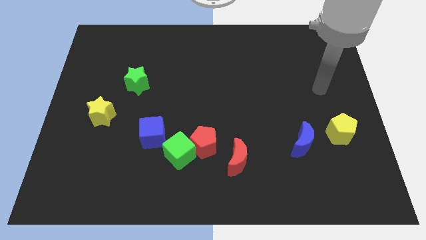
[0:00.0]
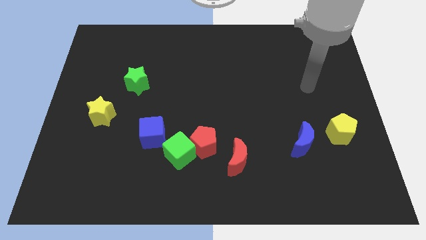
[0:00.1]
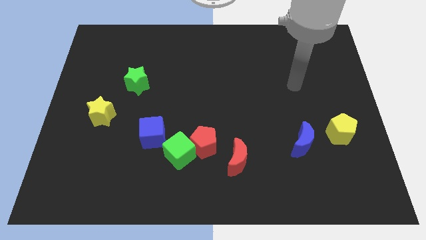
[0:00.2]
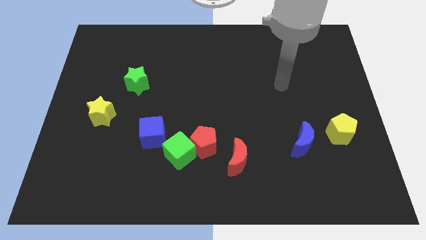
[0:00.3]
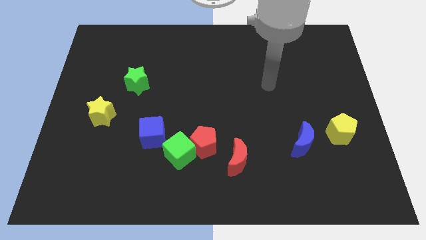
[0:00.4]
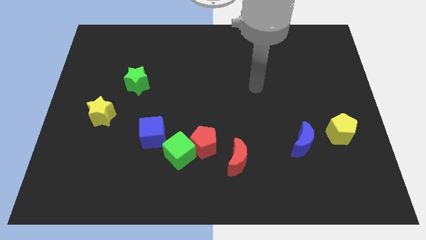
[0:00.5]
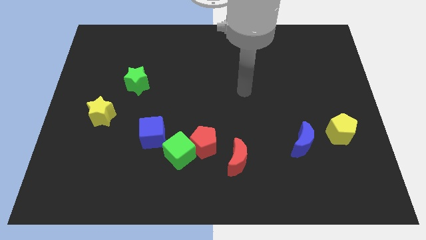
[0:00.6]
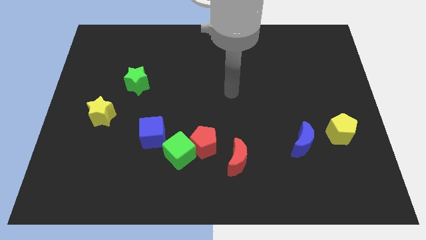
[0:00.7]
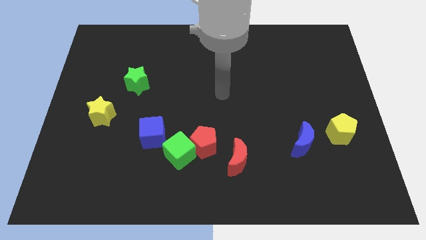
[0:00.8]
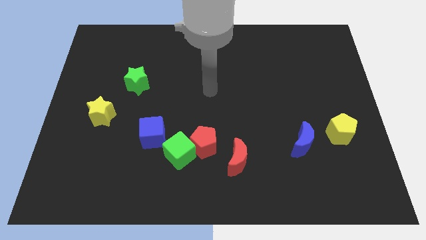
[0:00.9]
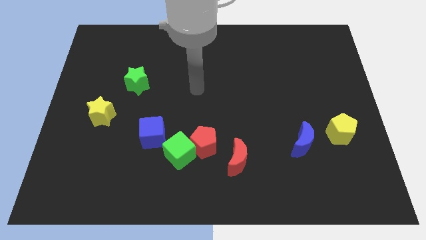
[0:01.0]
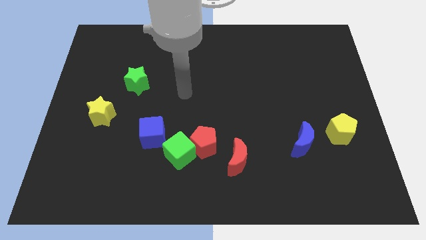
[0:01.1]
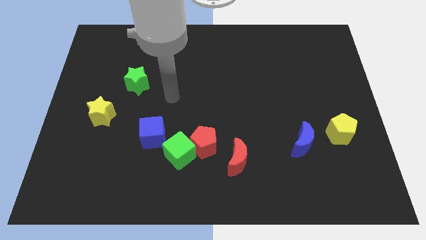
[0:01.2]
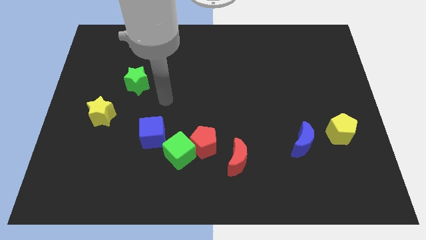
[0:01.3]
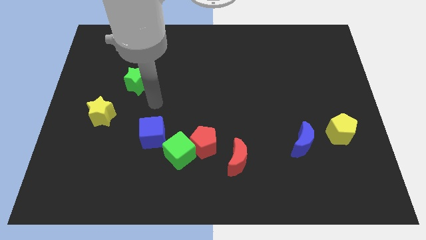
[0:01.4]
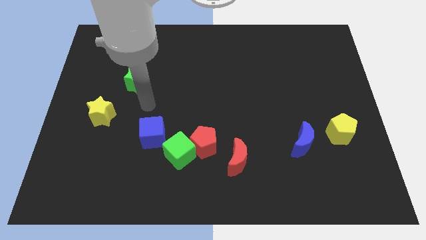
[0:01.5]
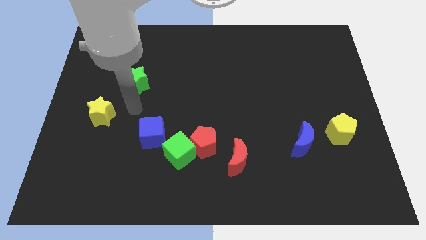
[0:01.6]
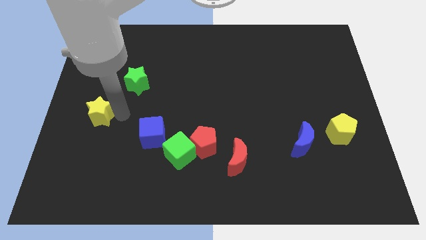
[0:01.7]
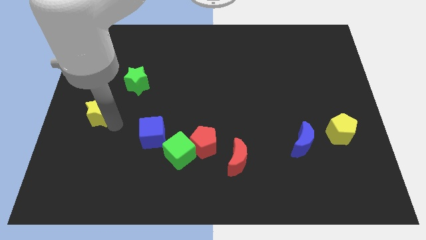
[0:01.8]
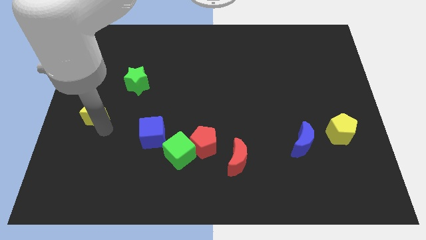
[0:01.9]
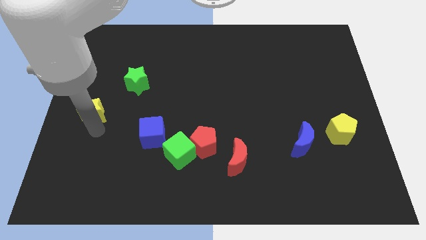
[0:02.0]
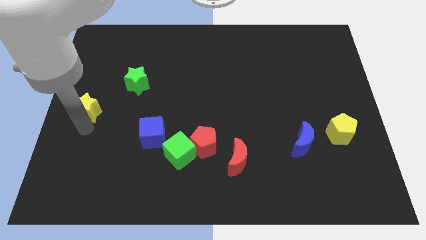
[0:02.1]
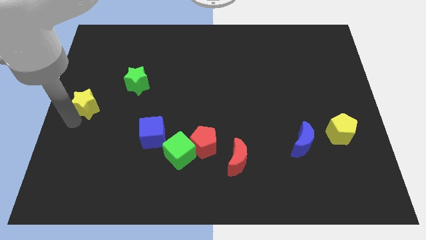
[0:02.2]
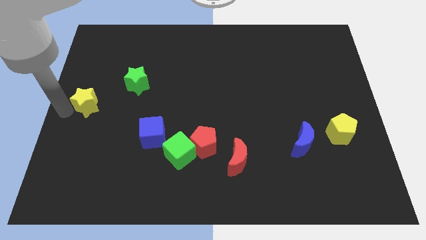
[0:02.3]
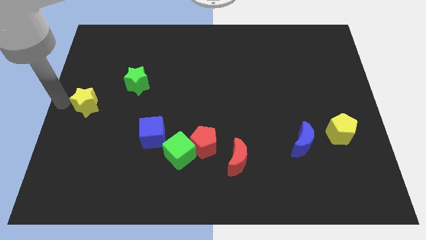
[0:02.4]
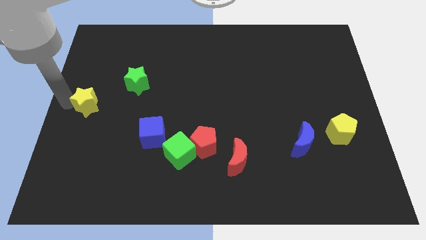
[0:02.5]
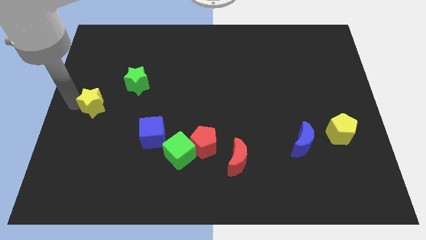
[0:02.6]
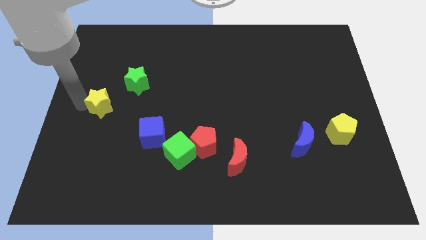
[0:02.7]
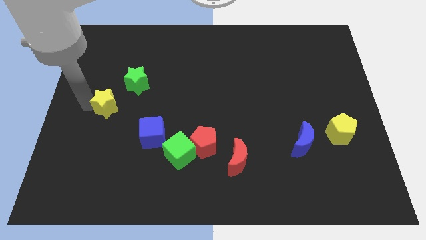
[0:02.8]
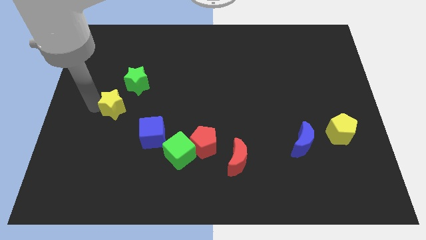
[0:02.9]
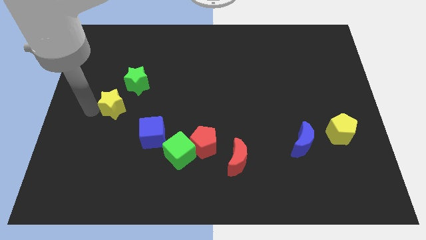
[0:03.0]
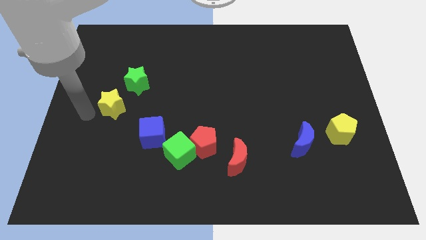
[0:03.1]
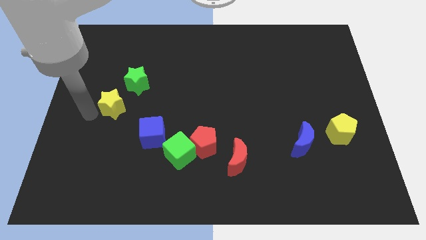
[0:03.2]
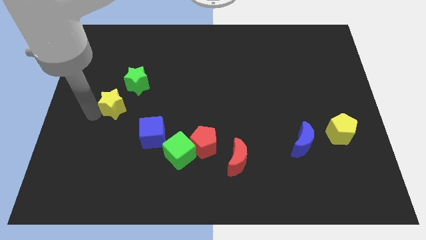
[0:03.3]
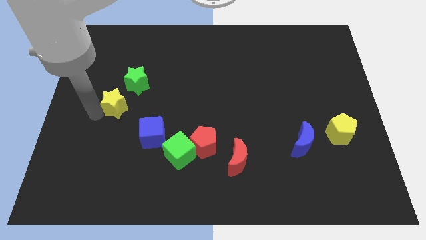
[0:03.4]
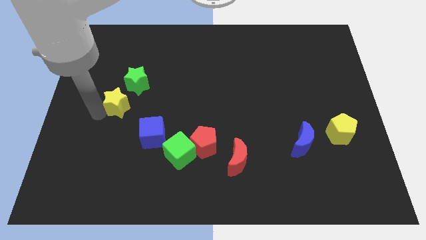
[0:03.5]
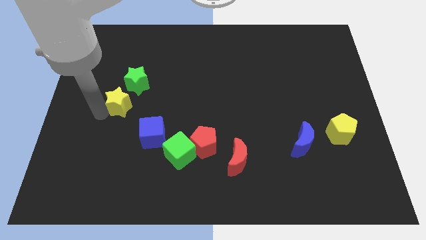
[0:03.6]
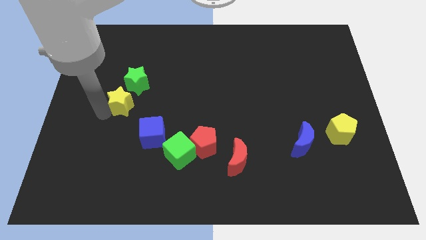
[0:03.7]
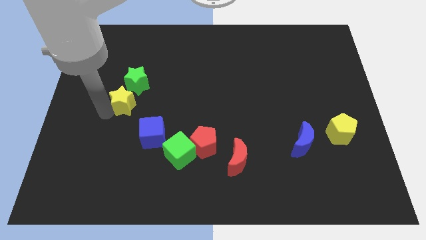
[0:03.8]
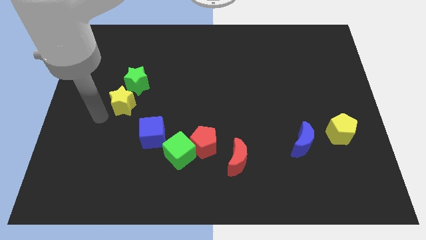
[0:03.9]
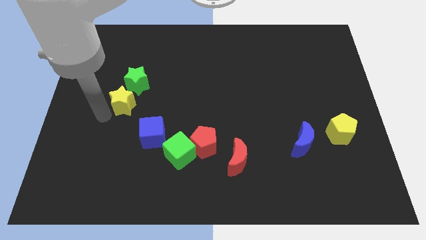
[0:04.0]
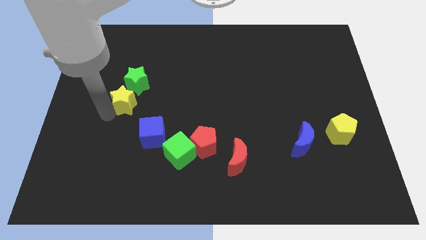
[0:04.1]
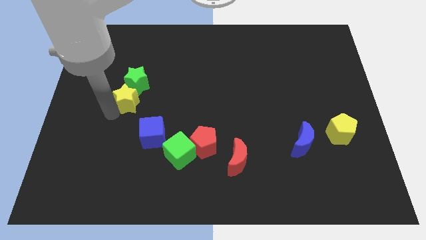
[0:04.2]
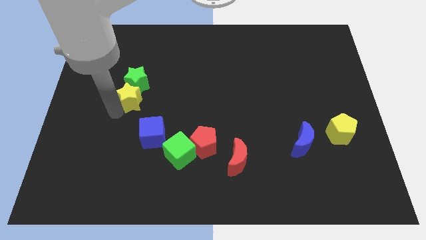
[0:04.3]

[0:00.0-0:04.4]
push the yellow star upwards and to the right a little

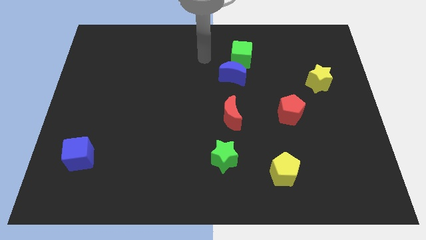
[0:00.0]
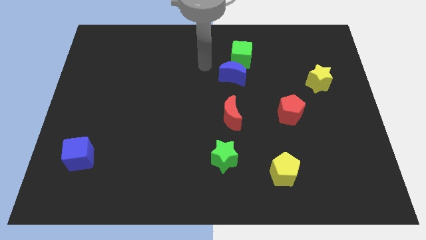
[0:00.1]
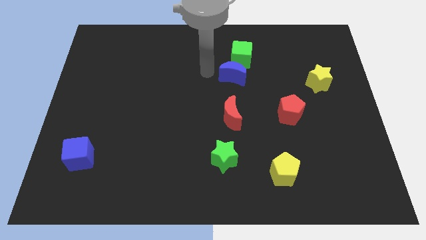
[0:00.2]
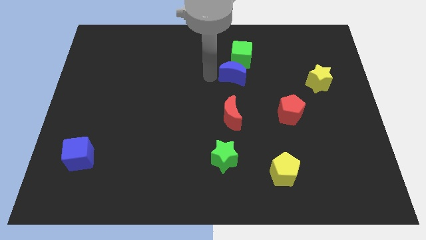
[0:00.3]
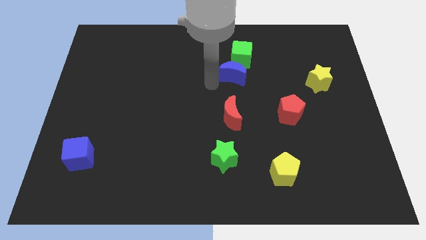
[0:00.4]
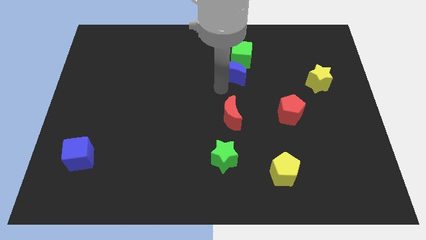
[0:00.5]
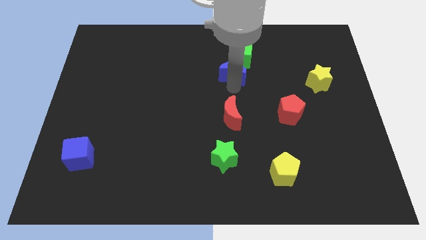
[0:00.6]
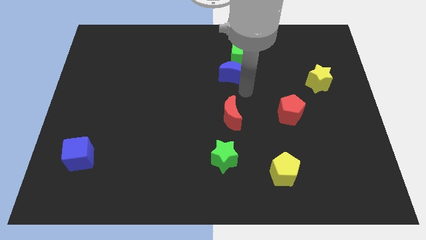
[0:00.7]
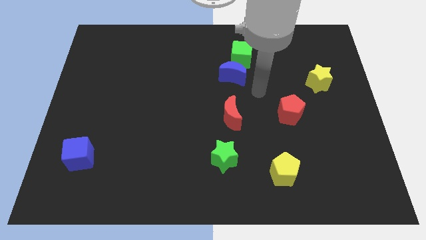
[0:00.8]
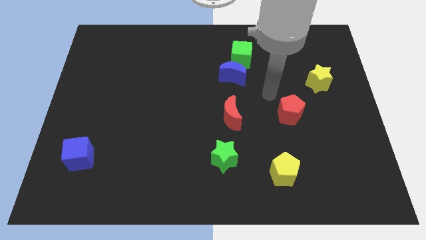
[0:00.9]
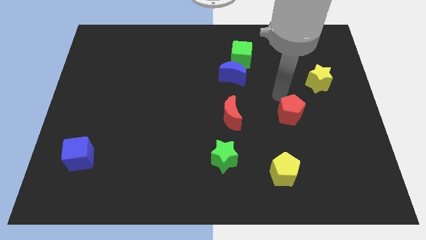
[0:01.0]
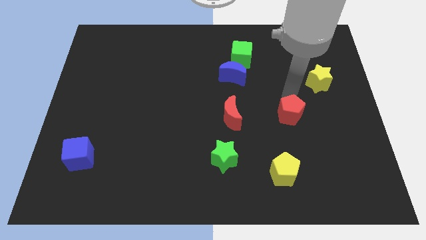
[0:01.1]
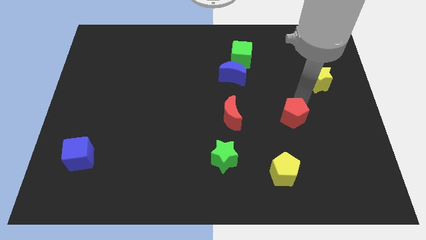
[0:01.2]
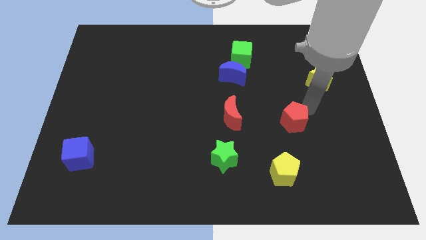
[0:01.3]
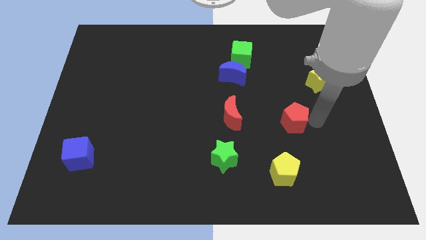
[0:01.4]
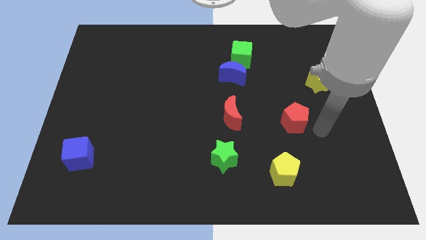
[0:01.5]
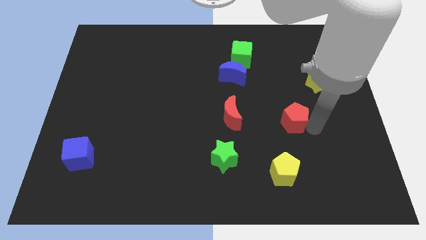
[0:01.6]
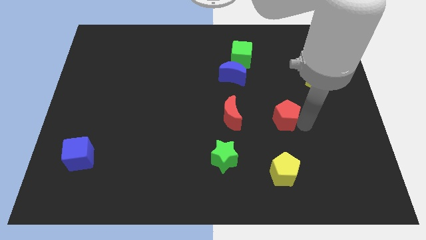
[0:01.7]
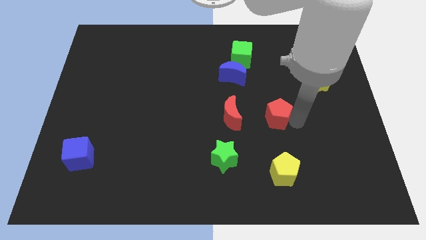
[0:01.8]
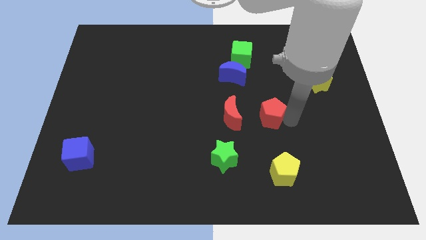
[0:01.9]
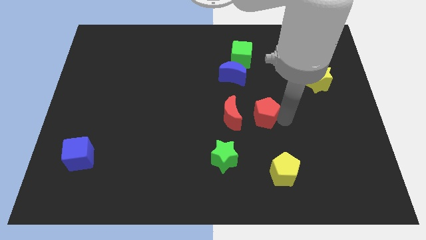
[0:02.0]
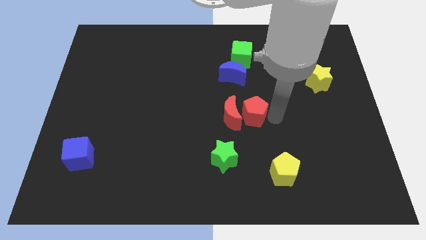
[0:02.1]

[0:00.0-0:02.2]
slide the red pentagon left a bit

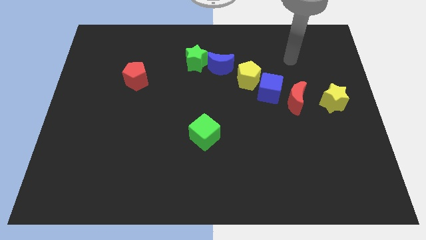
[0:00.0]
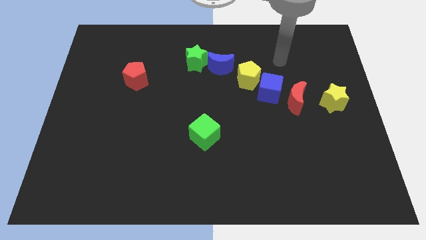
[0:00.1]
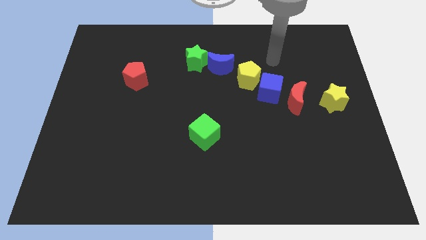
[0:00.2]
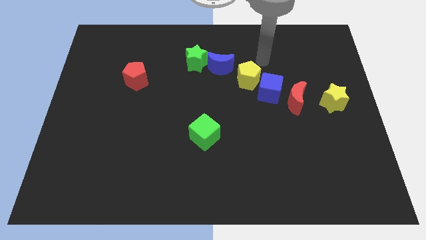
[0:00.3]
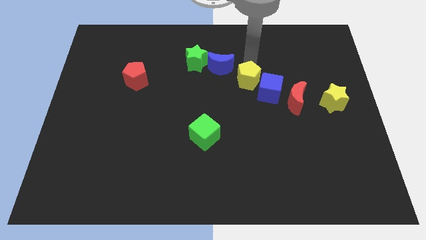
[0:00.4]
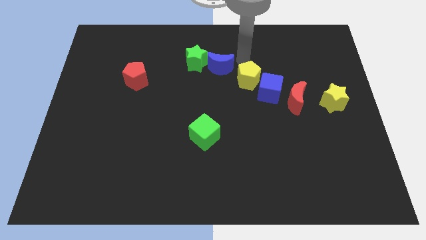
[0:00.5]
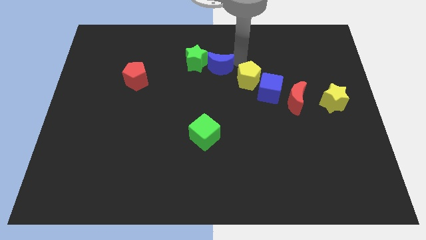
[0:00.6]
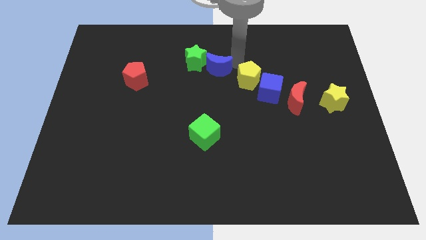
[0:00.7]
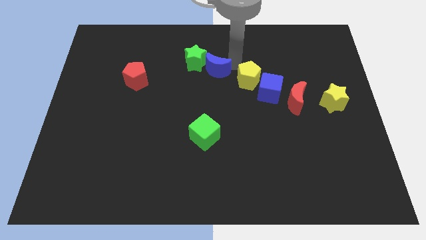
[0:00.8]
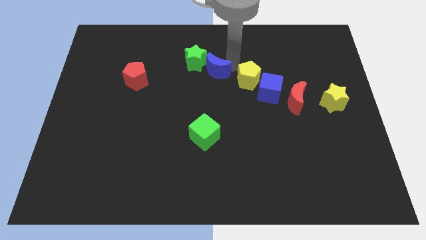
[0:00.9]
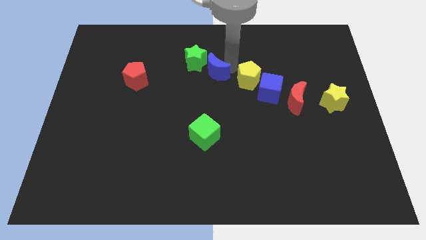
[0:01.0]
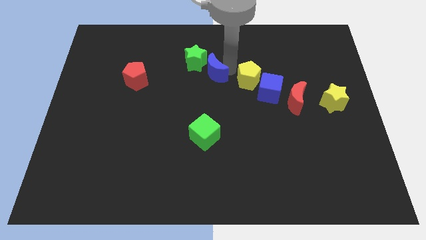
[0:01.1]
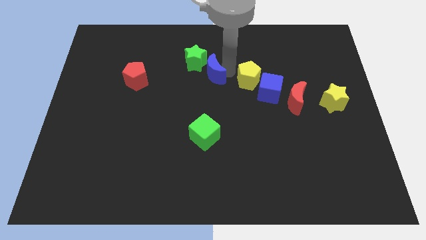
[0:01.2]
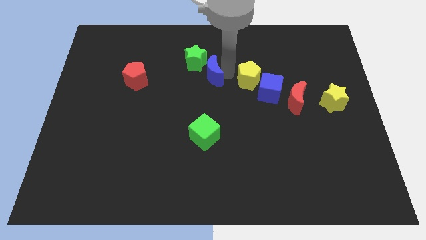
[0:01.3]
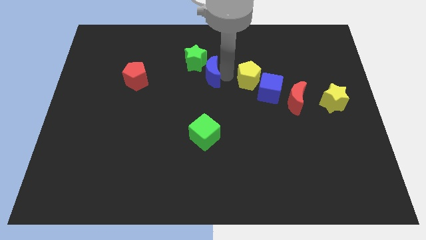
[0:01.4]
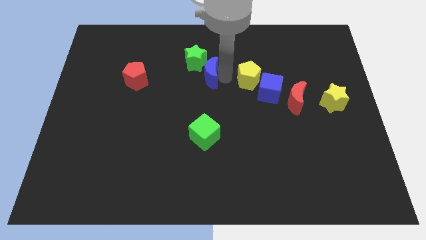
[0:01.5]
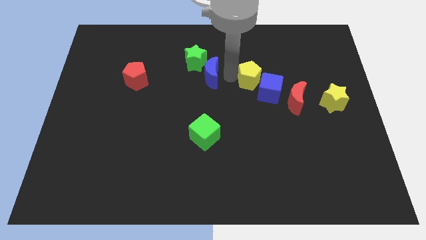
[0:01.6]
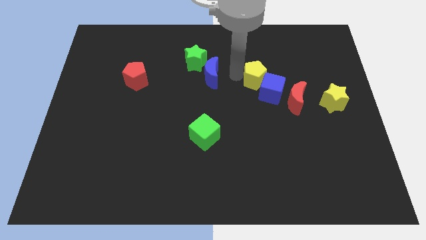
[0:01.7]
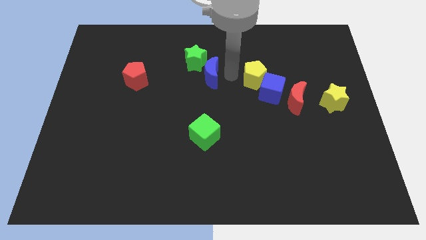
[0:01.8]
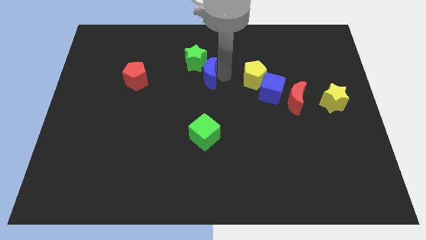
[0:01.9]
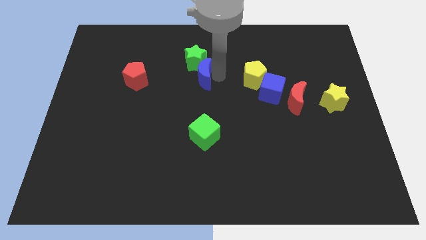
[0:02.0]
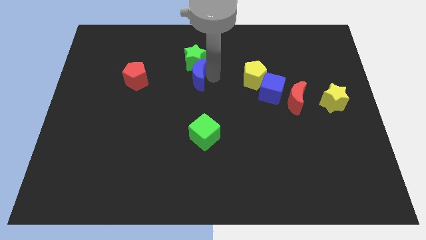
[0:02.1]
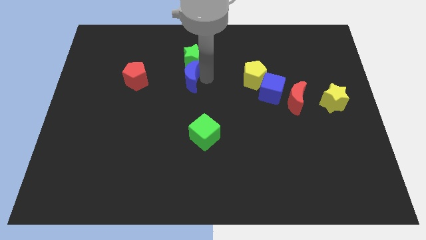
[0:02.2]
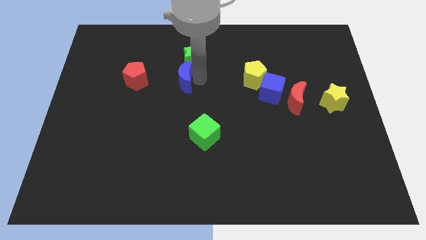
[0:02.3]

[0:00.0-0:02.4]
push the blue moon slightly left
